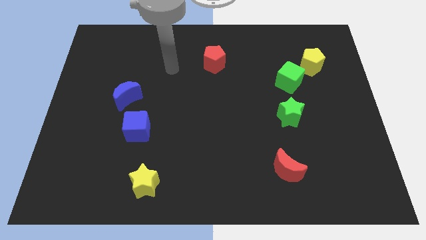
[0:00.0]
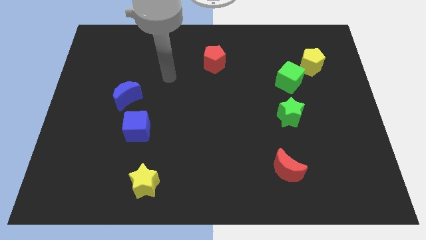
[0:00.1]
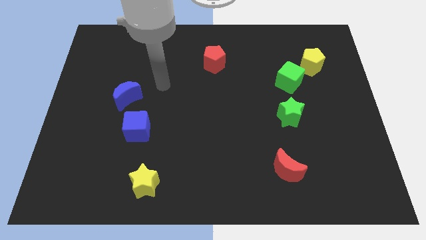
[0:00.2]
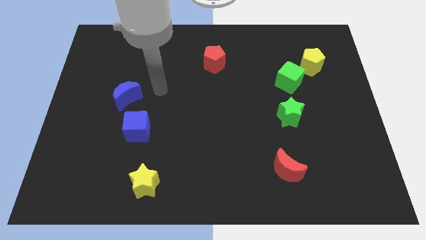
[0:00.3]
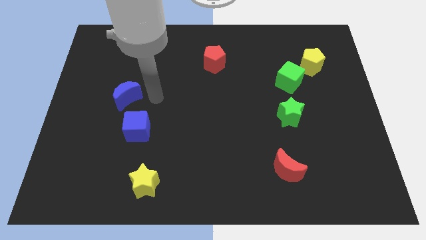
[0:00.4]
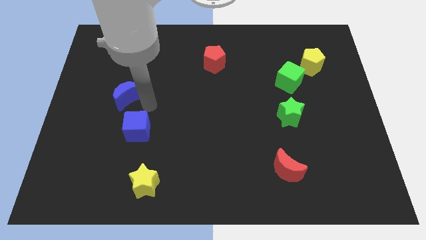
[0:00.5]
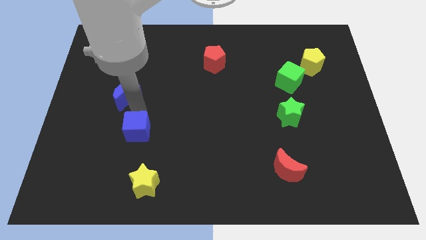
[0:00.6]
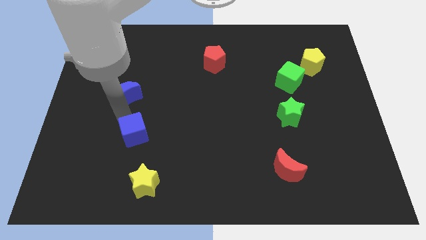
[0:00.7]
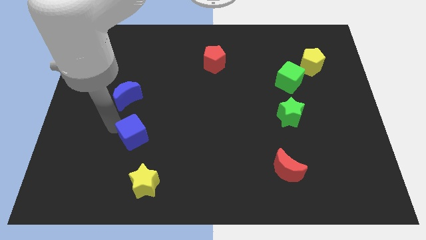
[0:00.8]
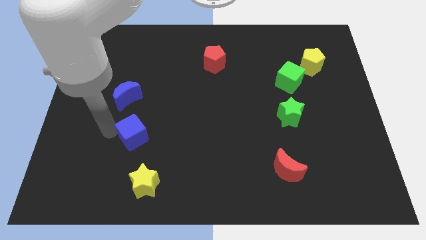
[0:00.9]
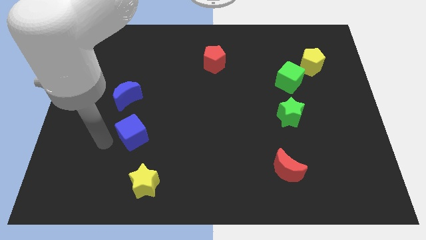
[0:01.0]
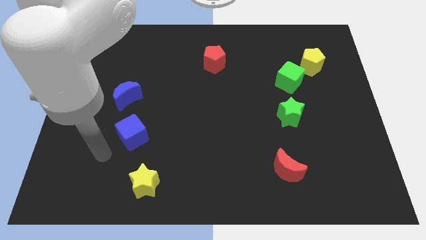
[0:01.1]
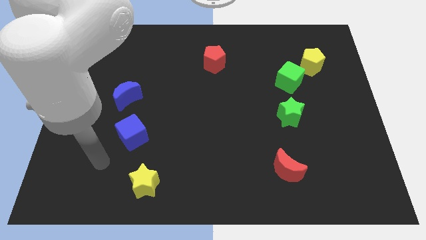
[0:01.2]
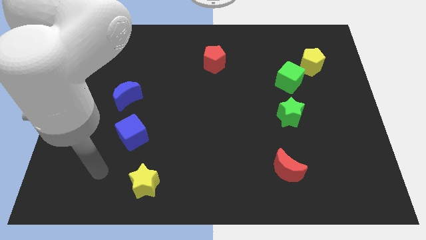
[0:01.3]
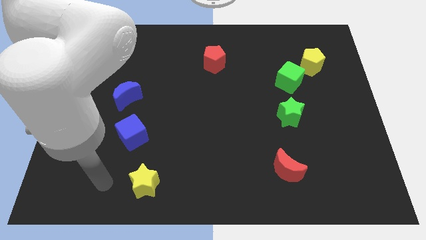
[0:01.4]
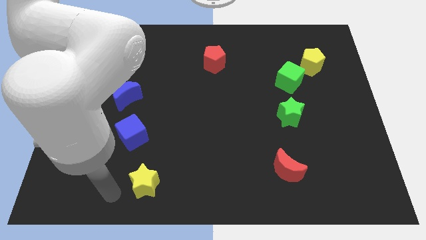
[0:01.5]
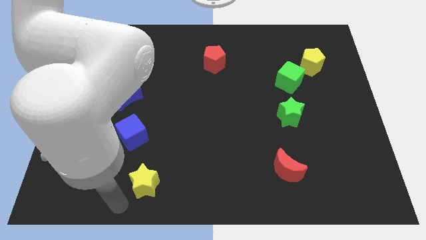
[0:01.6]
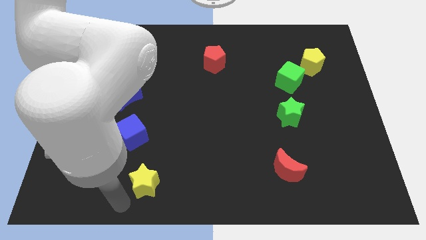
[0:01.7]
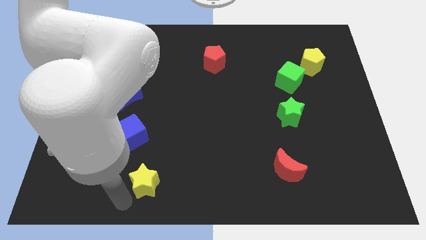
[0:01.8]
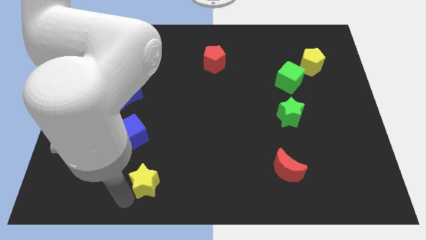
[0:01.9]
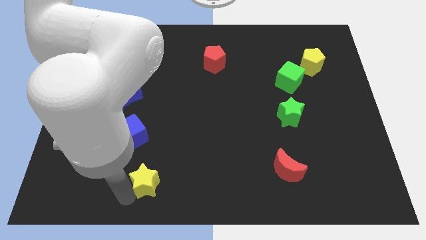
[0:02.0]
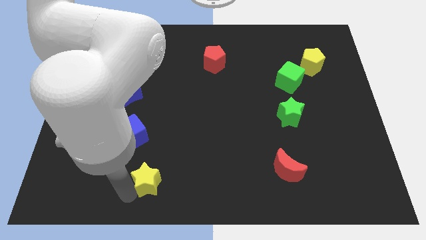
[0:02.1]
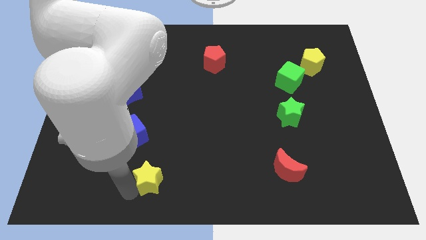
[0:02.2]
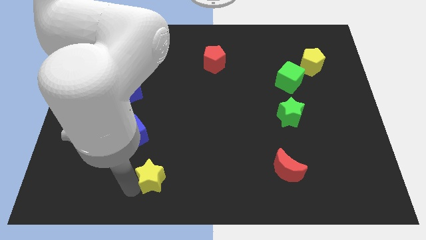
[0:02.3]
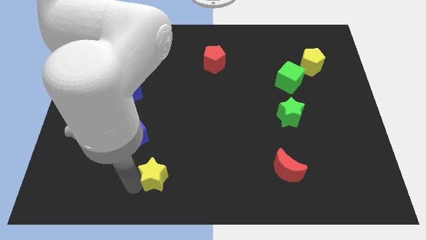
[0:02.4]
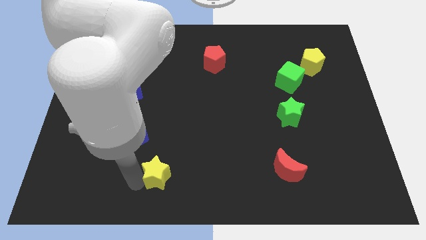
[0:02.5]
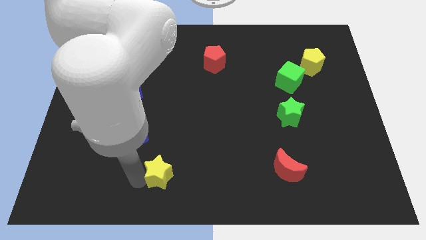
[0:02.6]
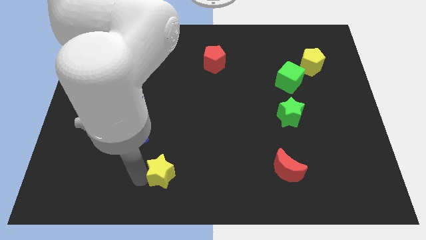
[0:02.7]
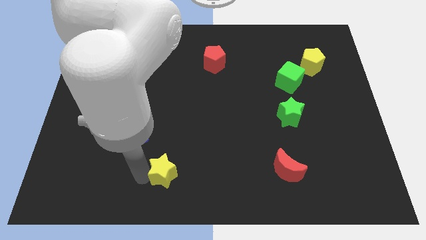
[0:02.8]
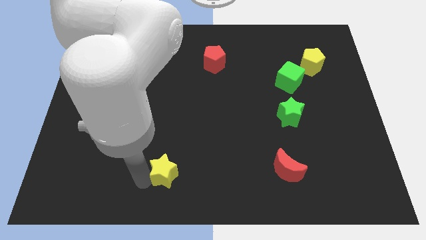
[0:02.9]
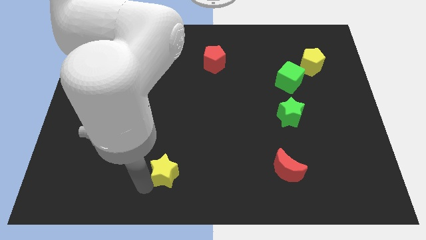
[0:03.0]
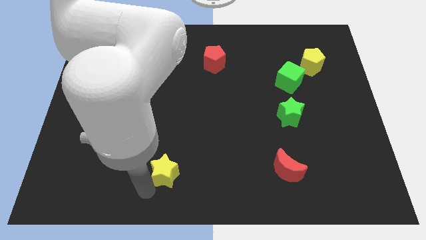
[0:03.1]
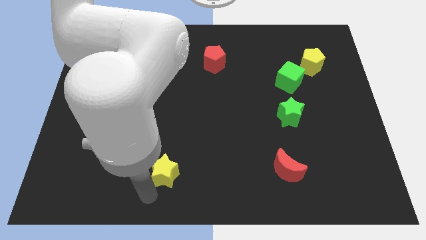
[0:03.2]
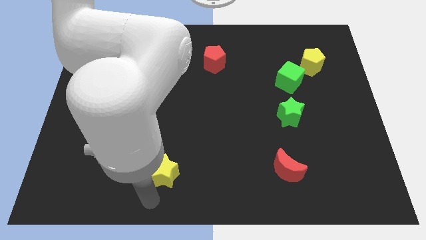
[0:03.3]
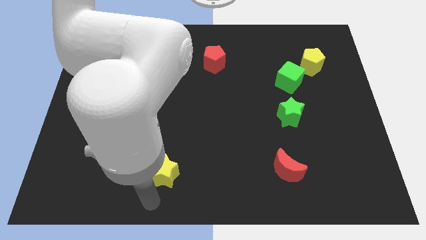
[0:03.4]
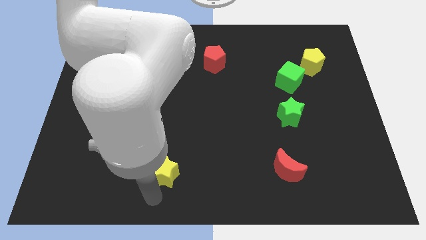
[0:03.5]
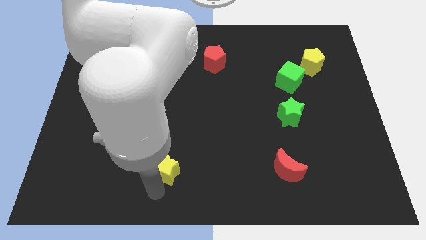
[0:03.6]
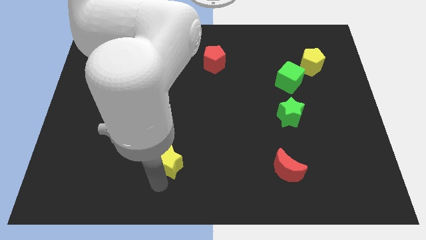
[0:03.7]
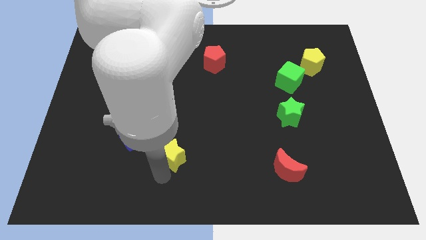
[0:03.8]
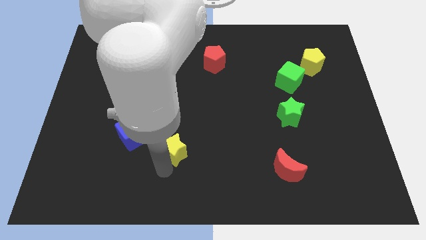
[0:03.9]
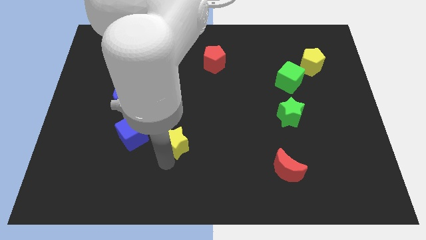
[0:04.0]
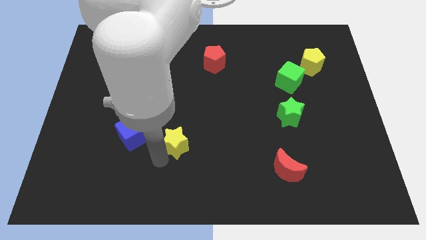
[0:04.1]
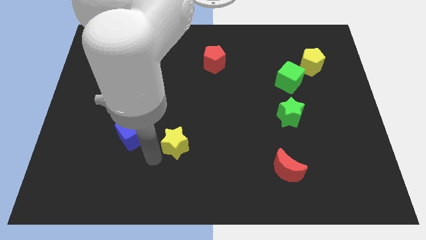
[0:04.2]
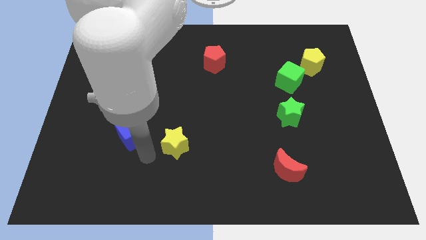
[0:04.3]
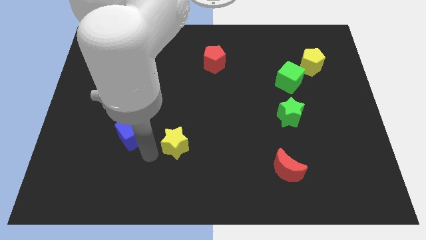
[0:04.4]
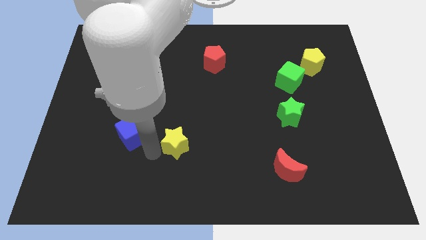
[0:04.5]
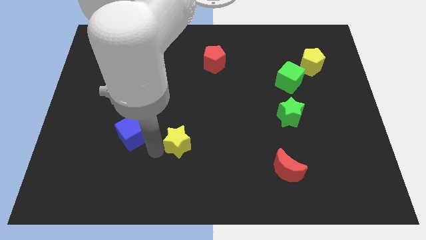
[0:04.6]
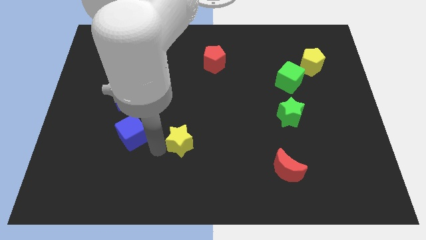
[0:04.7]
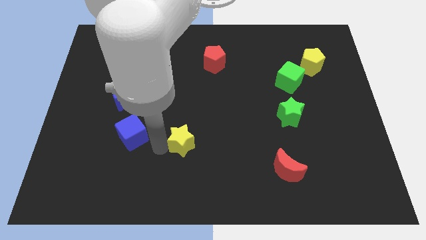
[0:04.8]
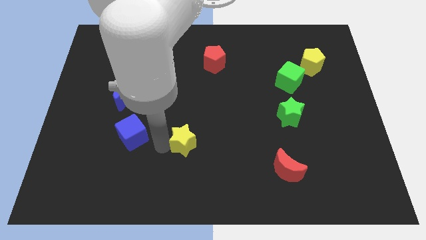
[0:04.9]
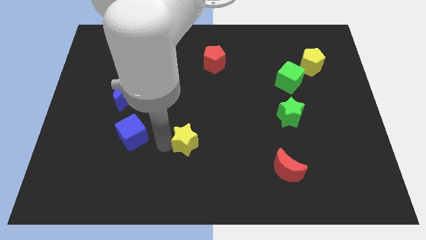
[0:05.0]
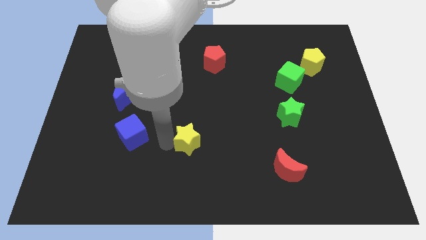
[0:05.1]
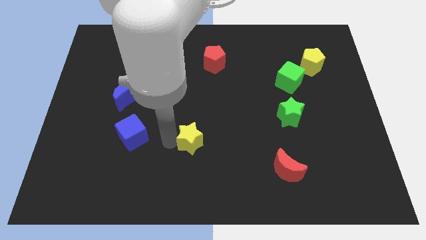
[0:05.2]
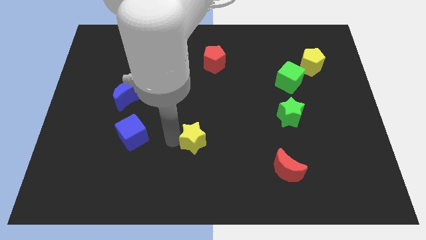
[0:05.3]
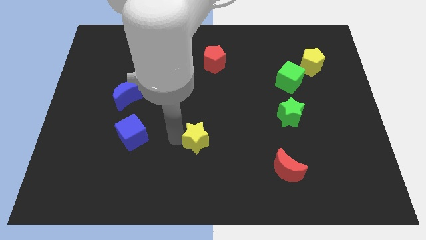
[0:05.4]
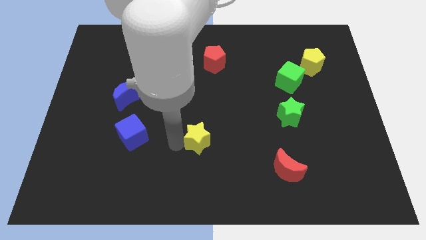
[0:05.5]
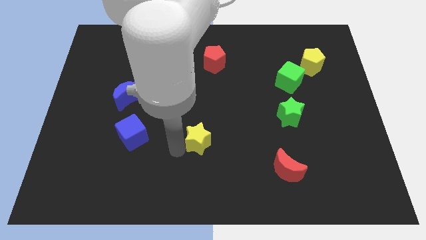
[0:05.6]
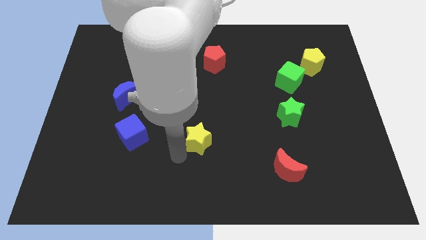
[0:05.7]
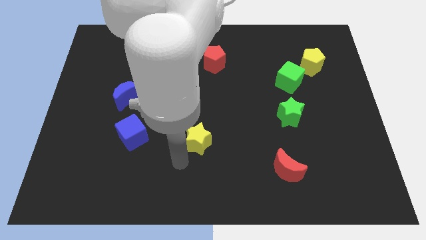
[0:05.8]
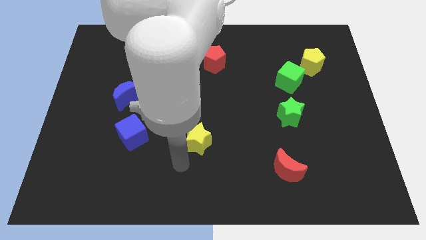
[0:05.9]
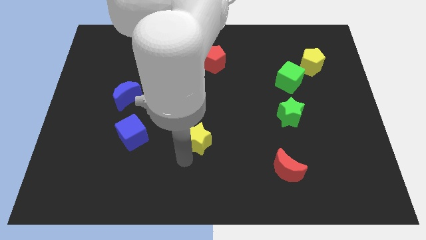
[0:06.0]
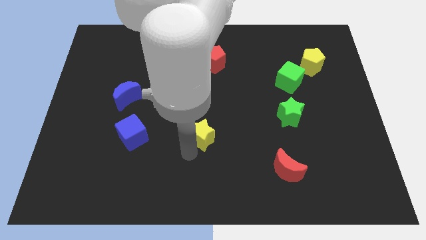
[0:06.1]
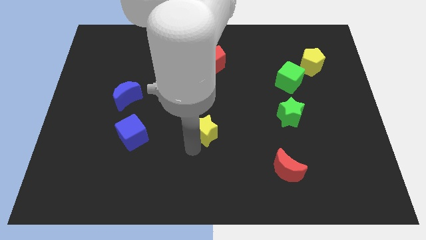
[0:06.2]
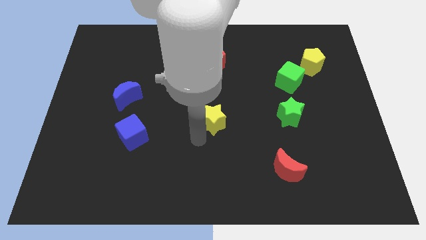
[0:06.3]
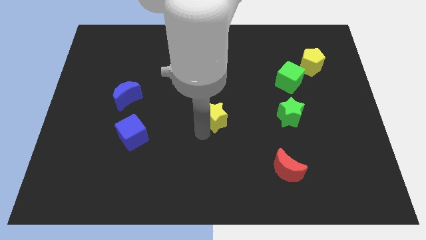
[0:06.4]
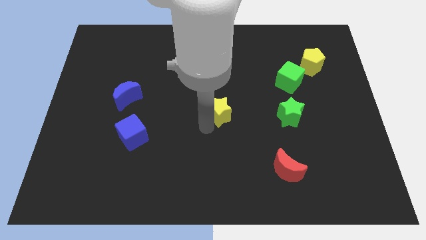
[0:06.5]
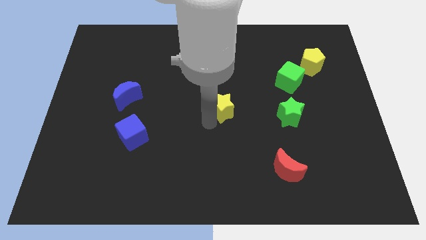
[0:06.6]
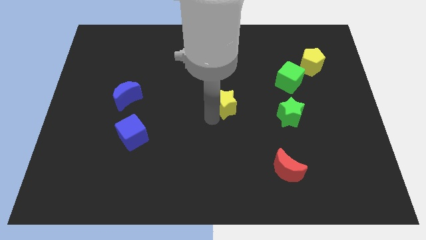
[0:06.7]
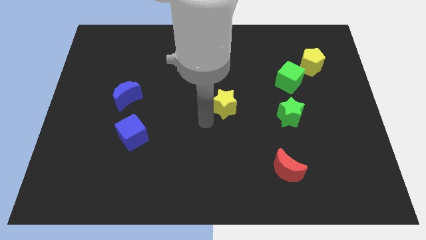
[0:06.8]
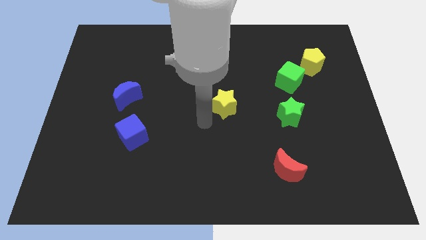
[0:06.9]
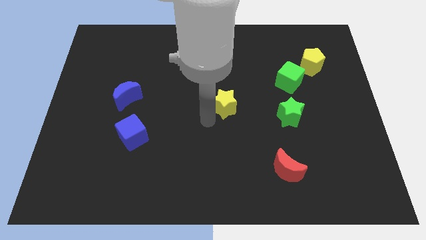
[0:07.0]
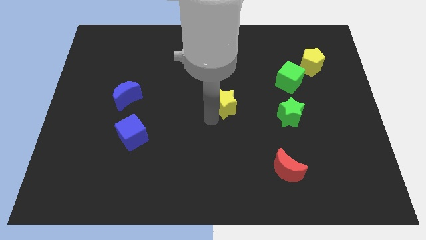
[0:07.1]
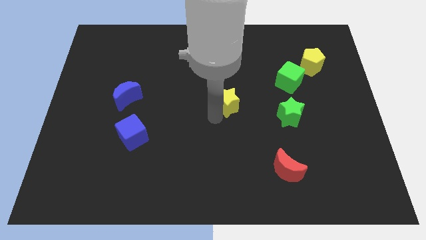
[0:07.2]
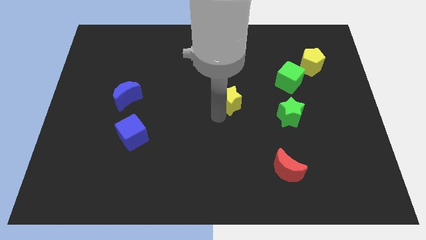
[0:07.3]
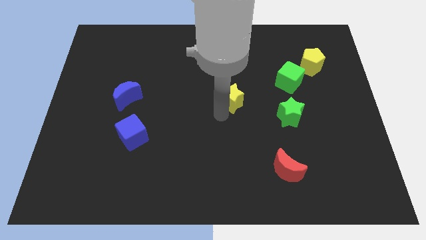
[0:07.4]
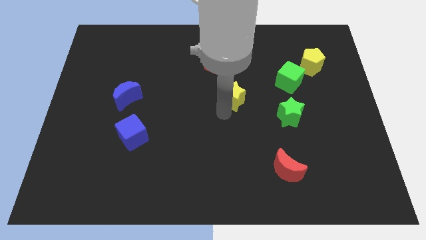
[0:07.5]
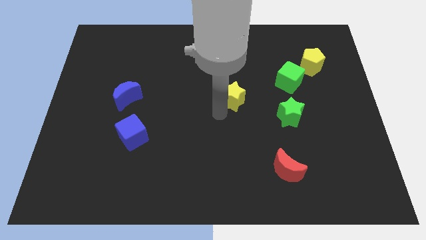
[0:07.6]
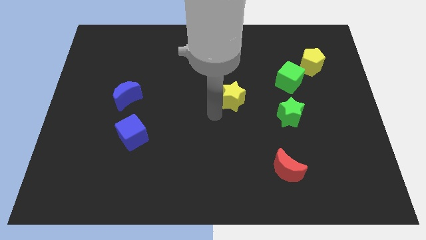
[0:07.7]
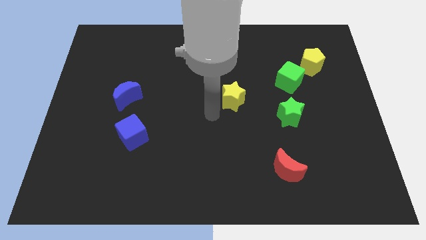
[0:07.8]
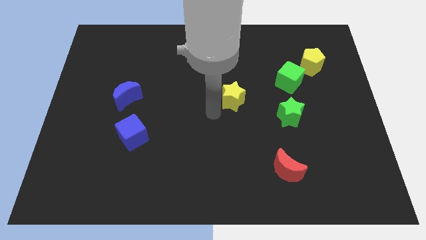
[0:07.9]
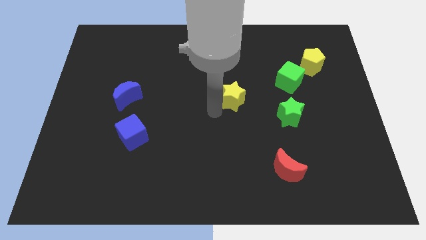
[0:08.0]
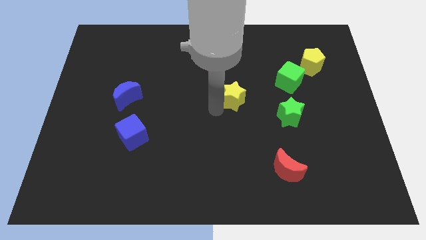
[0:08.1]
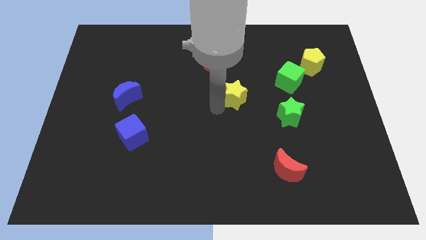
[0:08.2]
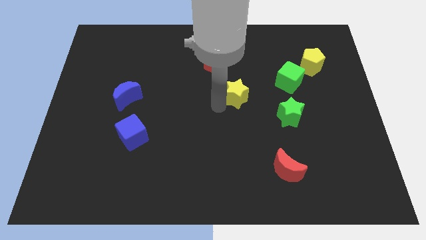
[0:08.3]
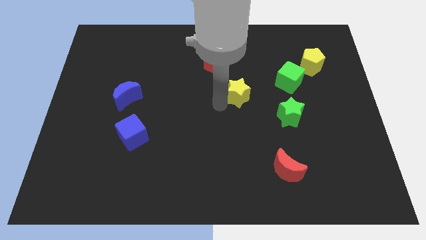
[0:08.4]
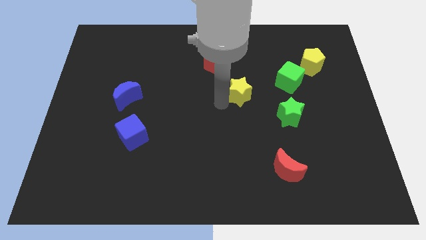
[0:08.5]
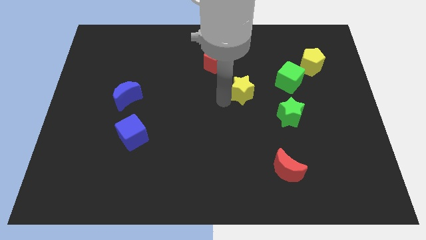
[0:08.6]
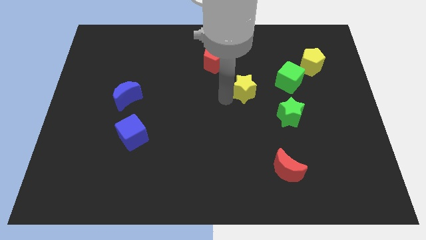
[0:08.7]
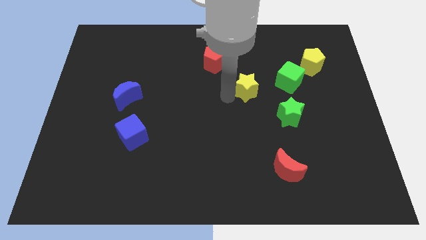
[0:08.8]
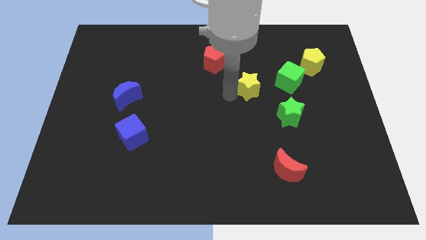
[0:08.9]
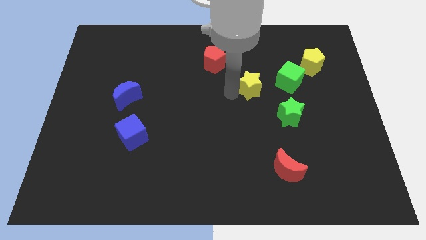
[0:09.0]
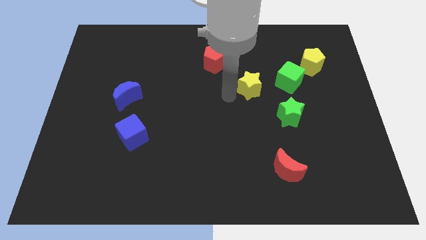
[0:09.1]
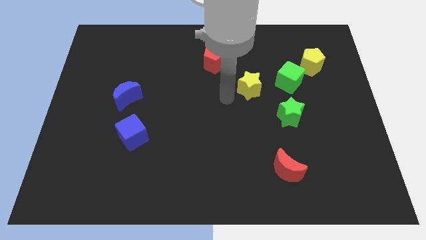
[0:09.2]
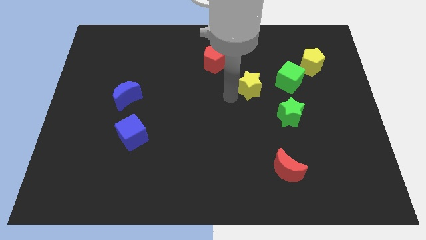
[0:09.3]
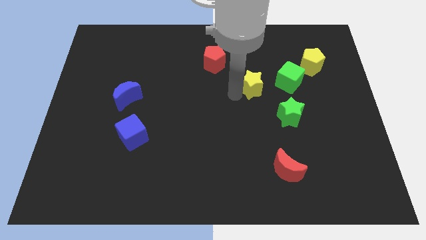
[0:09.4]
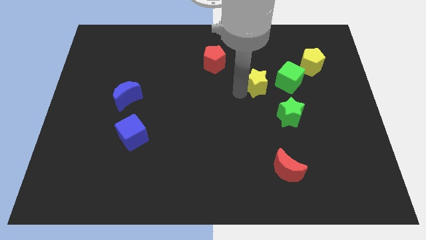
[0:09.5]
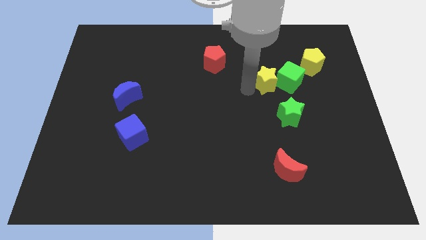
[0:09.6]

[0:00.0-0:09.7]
move the yellow star to the top of the green star
